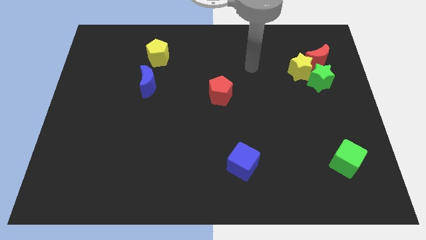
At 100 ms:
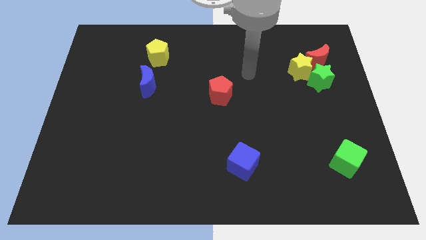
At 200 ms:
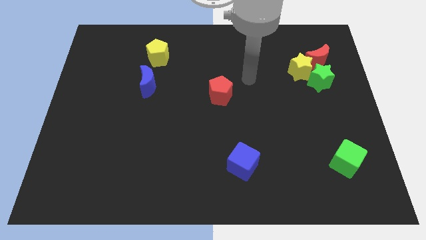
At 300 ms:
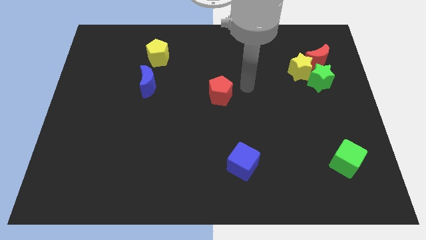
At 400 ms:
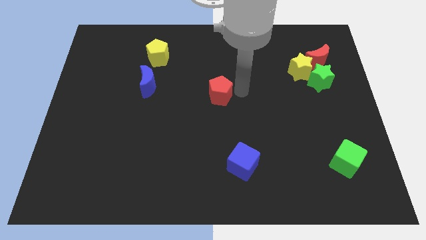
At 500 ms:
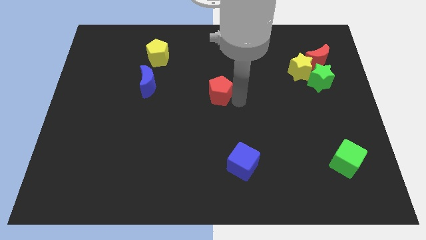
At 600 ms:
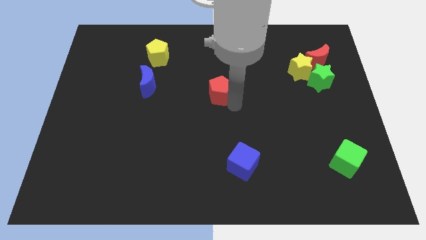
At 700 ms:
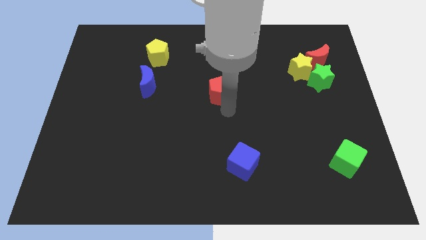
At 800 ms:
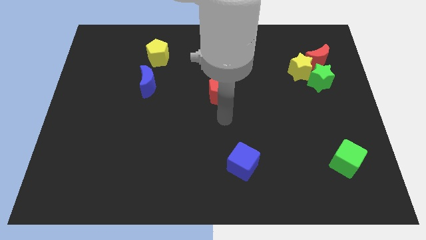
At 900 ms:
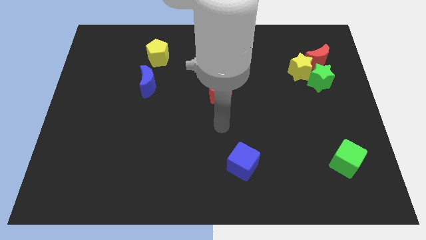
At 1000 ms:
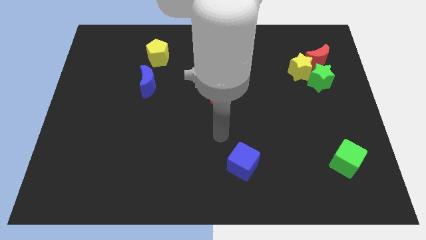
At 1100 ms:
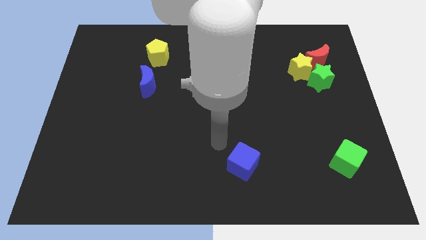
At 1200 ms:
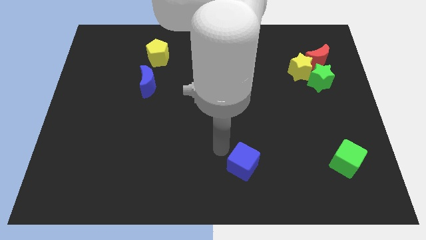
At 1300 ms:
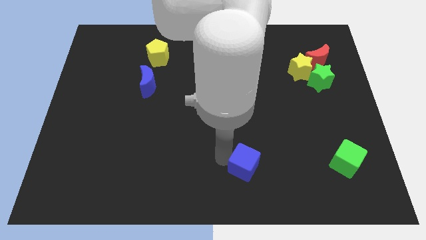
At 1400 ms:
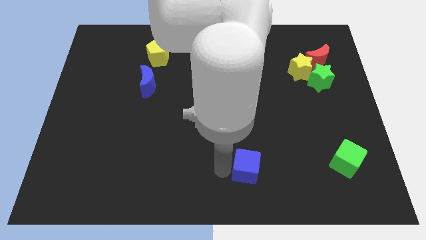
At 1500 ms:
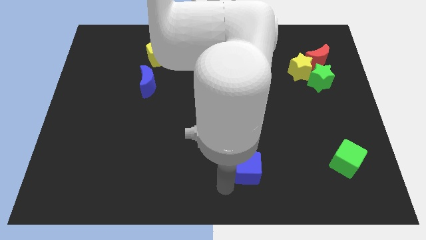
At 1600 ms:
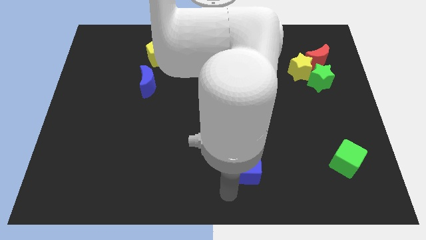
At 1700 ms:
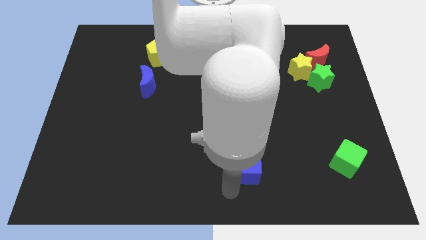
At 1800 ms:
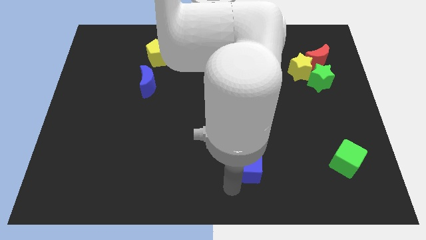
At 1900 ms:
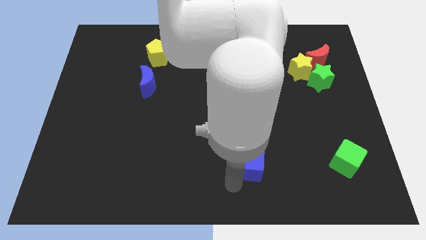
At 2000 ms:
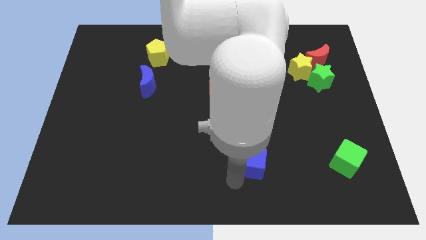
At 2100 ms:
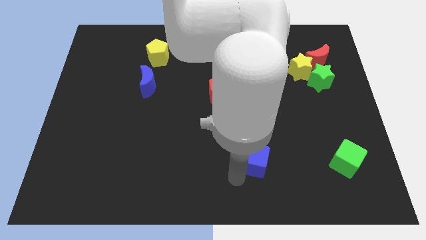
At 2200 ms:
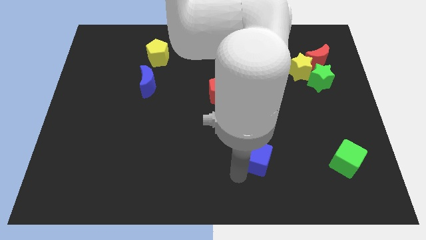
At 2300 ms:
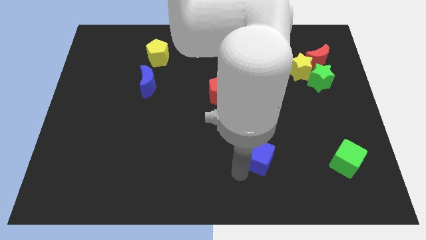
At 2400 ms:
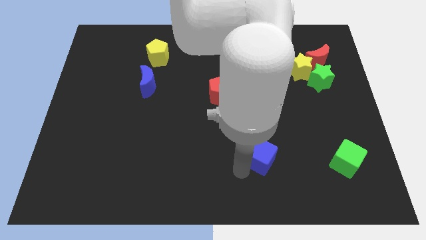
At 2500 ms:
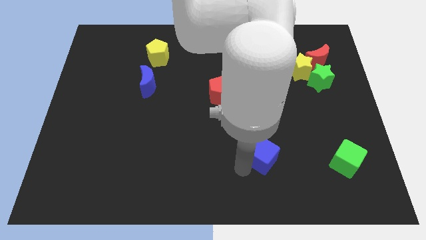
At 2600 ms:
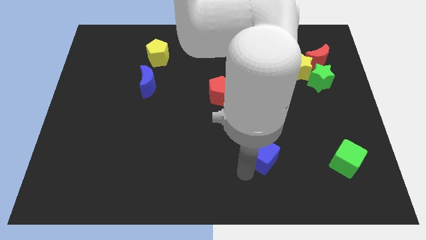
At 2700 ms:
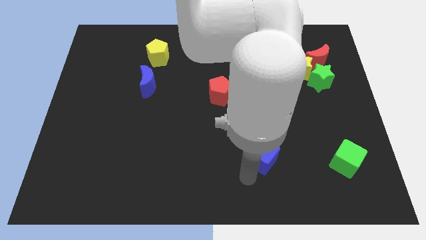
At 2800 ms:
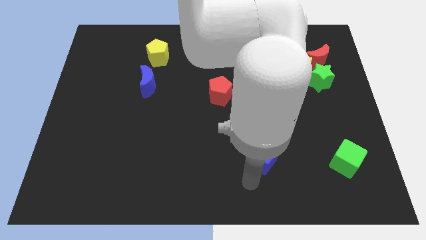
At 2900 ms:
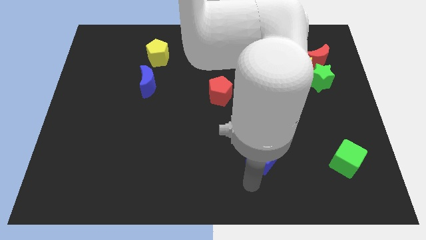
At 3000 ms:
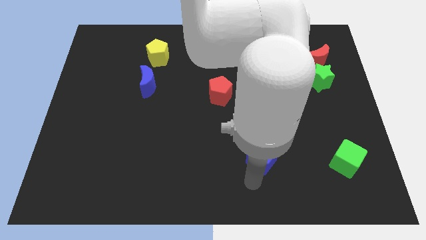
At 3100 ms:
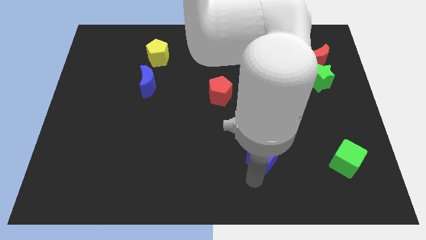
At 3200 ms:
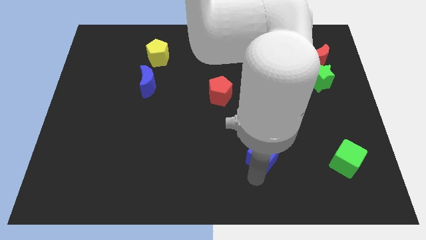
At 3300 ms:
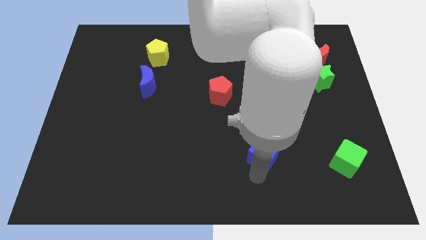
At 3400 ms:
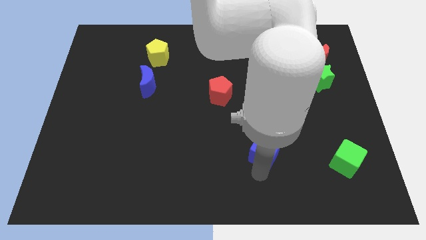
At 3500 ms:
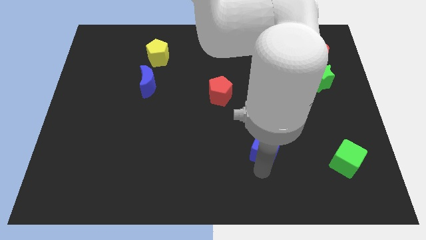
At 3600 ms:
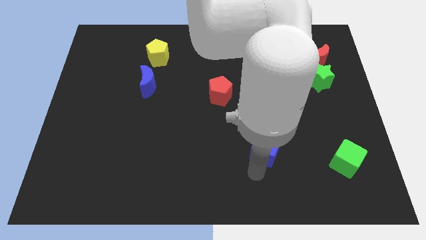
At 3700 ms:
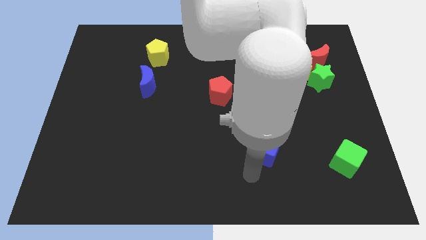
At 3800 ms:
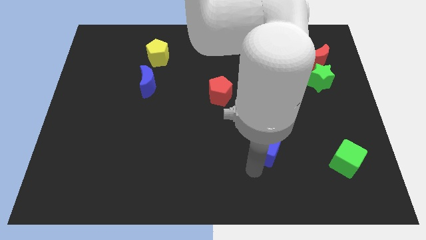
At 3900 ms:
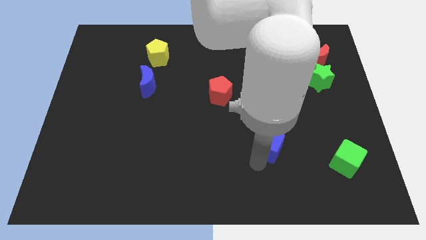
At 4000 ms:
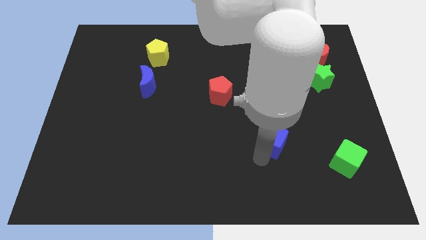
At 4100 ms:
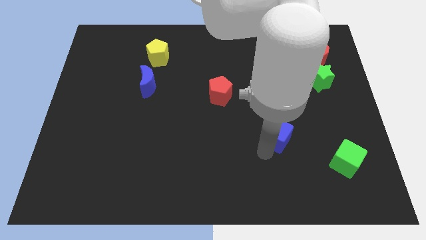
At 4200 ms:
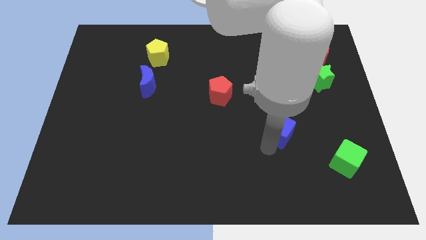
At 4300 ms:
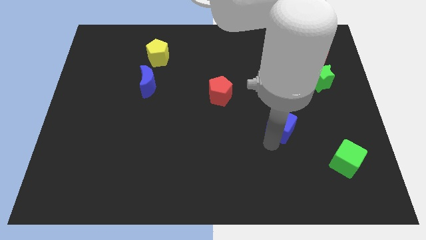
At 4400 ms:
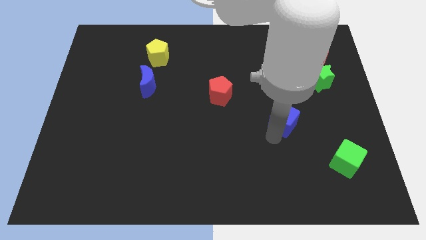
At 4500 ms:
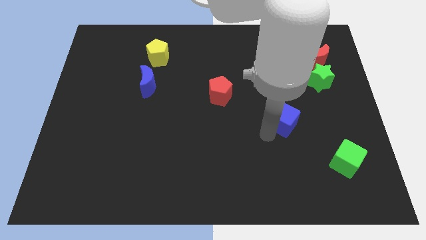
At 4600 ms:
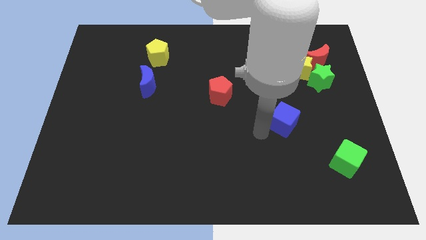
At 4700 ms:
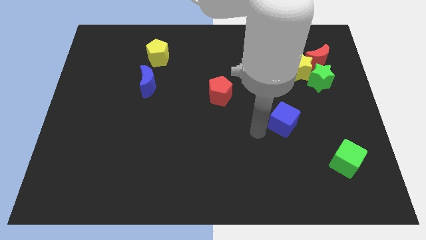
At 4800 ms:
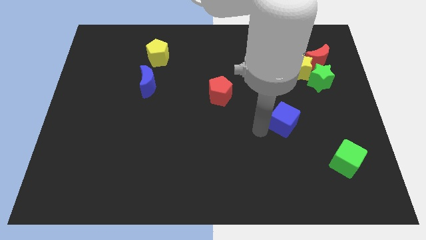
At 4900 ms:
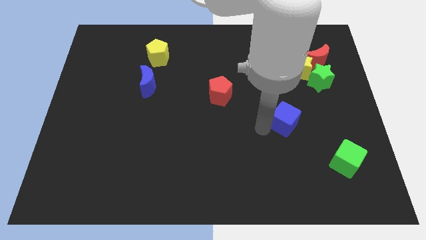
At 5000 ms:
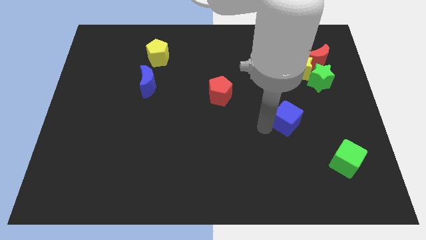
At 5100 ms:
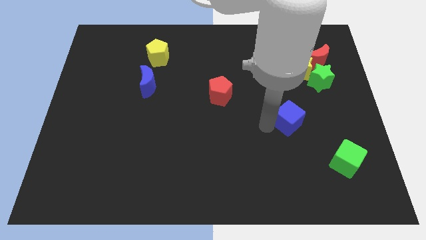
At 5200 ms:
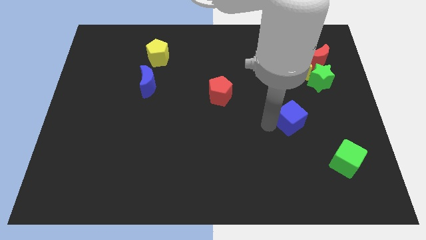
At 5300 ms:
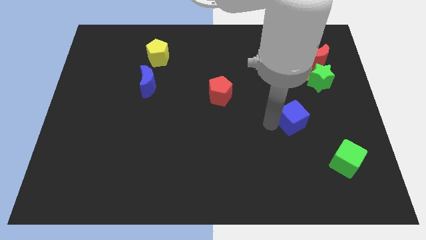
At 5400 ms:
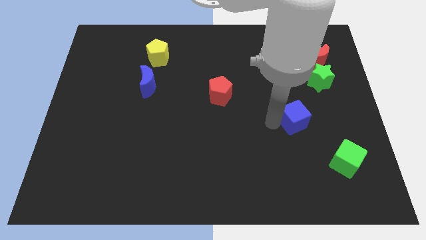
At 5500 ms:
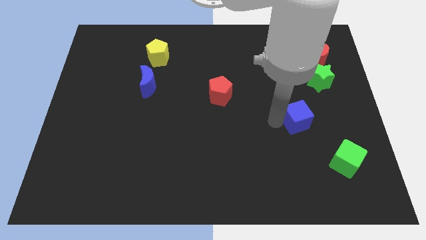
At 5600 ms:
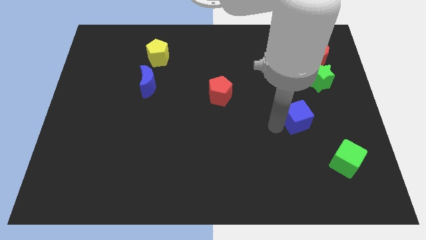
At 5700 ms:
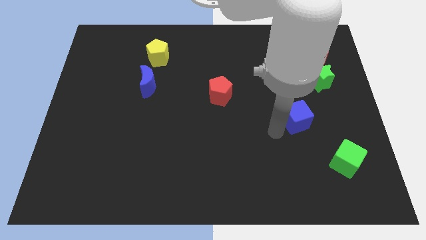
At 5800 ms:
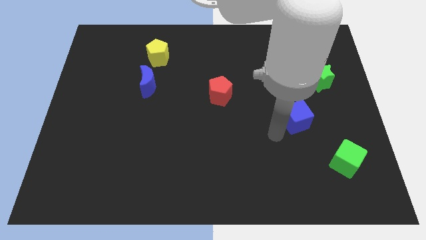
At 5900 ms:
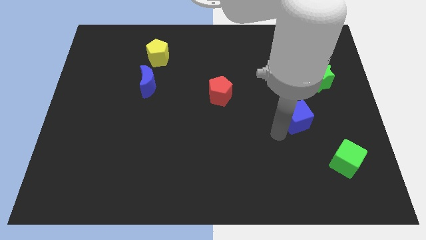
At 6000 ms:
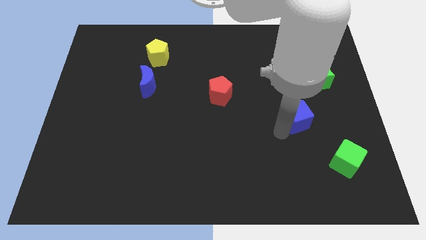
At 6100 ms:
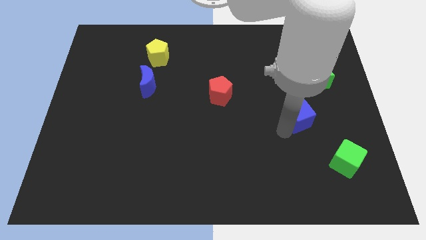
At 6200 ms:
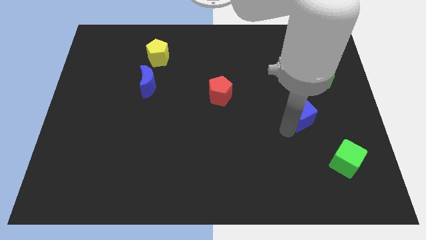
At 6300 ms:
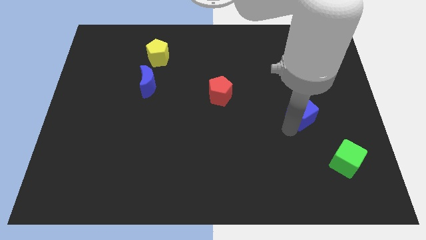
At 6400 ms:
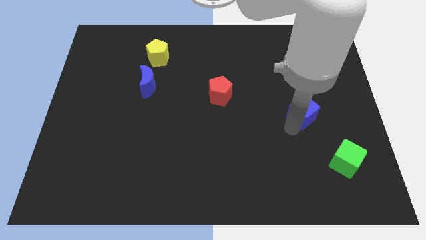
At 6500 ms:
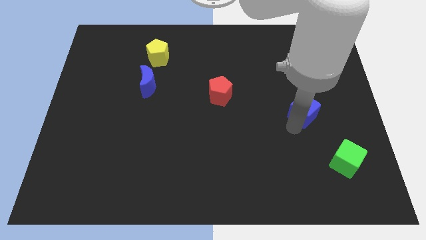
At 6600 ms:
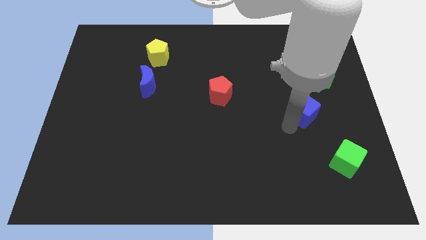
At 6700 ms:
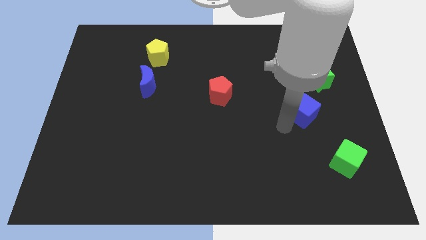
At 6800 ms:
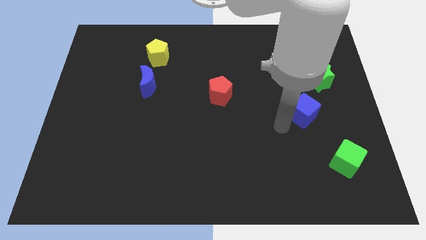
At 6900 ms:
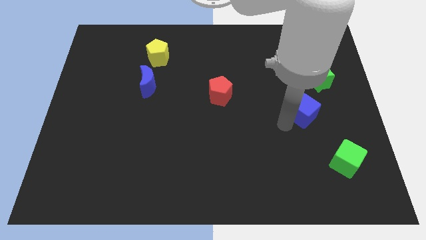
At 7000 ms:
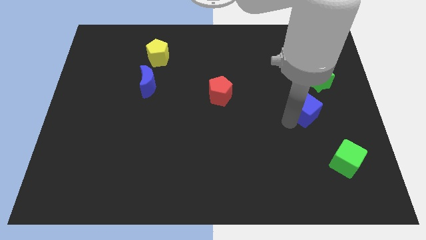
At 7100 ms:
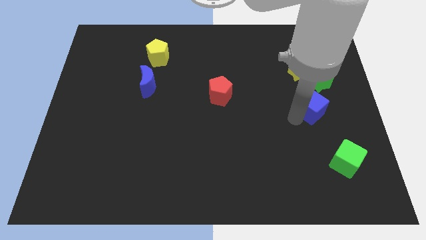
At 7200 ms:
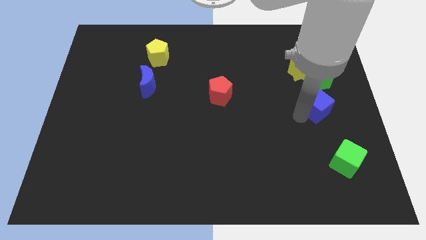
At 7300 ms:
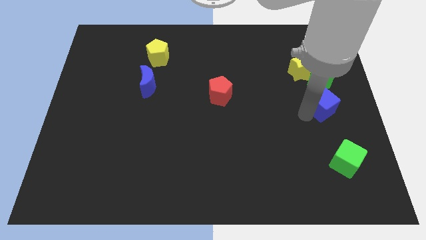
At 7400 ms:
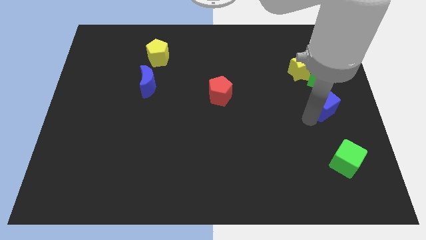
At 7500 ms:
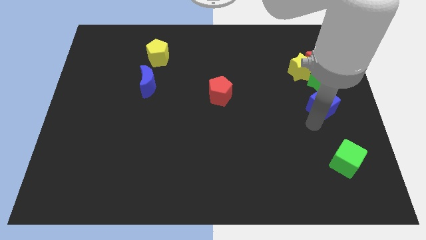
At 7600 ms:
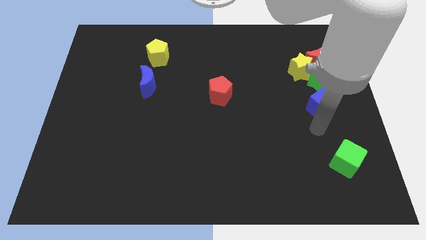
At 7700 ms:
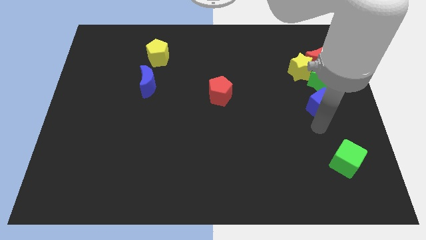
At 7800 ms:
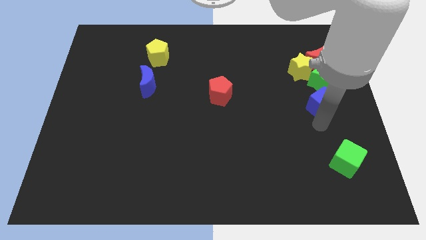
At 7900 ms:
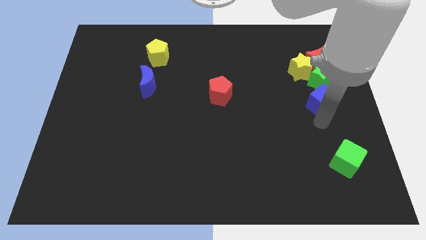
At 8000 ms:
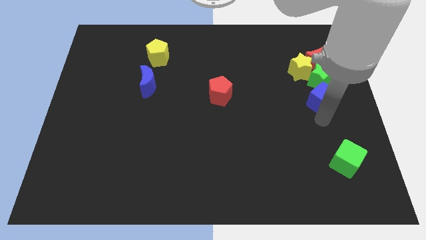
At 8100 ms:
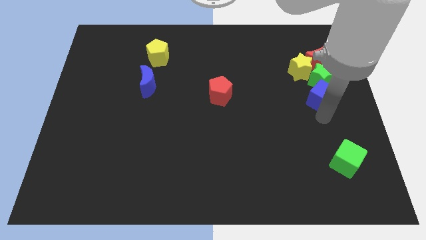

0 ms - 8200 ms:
put the blue cube to the bottom right side of the yellow star
